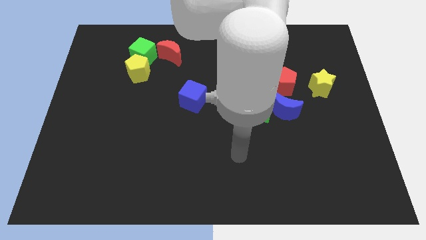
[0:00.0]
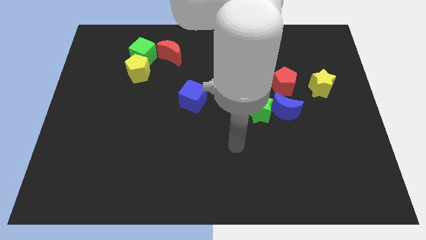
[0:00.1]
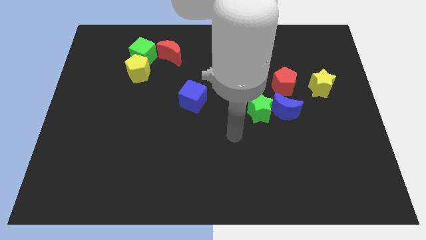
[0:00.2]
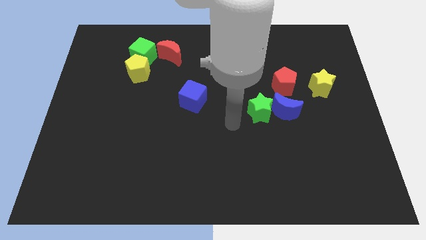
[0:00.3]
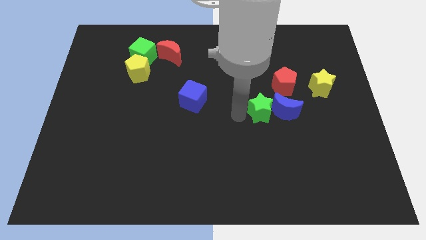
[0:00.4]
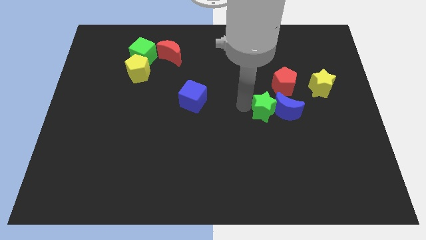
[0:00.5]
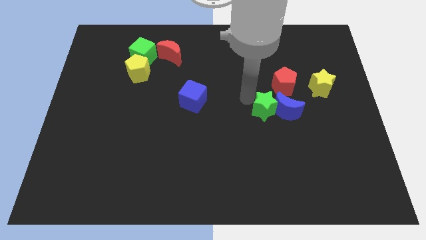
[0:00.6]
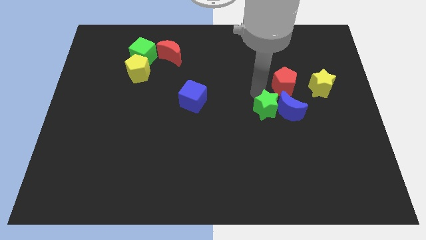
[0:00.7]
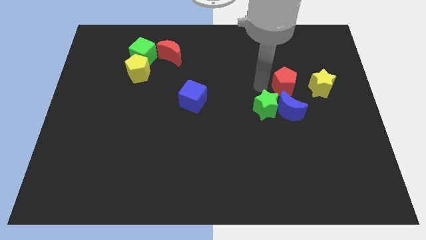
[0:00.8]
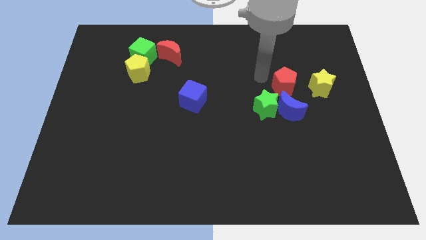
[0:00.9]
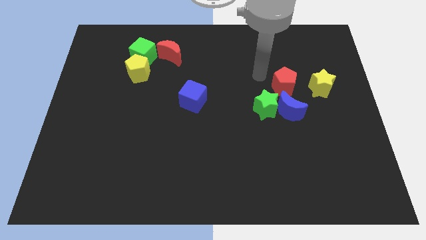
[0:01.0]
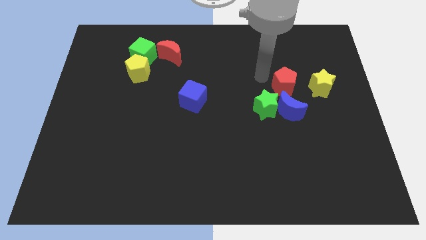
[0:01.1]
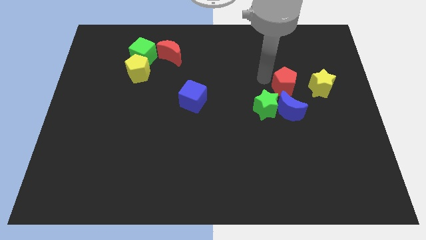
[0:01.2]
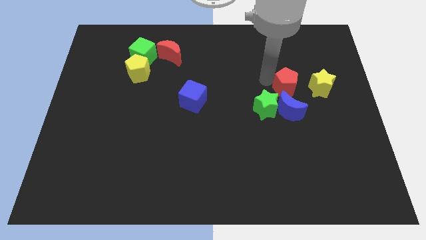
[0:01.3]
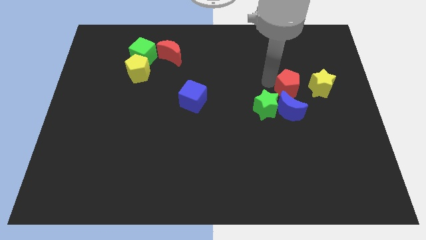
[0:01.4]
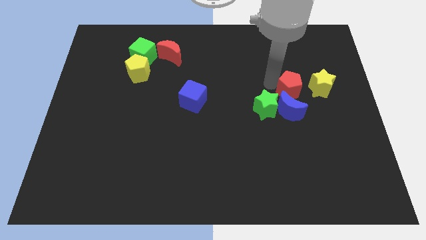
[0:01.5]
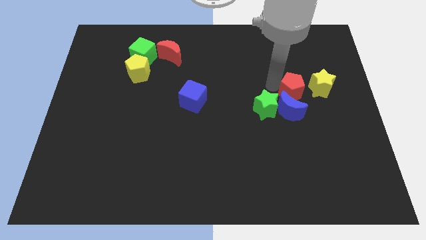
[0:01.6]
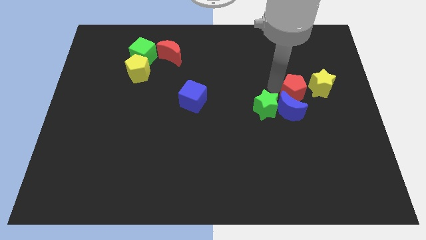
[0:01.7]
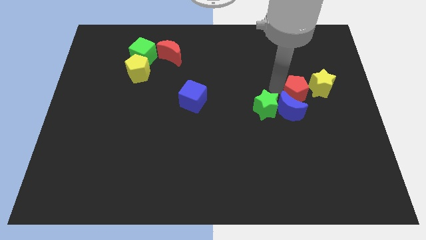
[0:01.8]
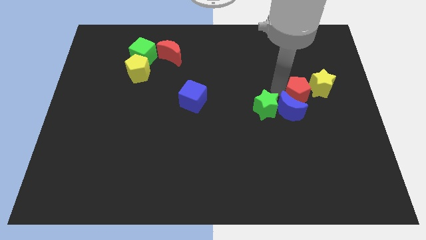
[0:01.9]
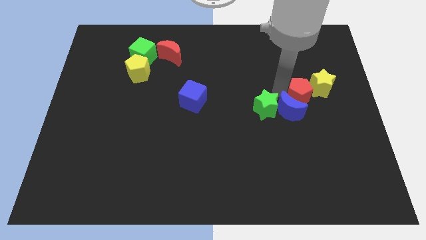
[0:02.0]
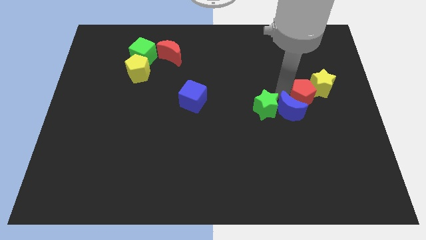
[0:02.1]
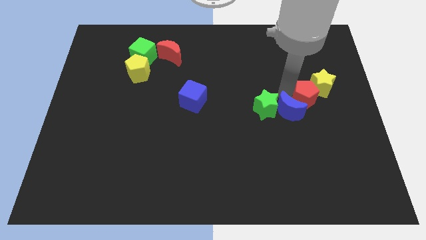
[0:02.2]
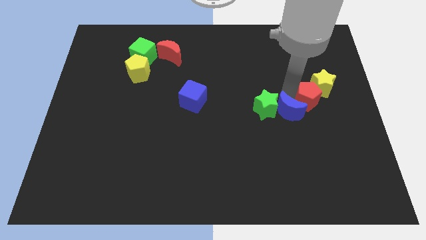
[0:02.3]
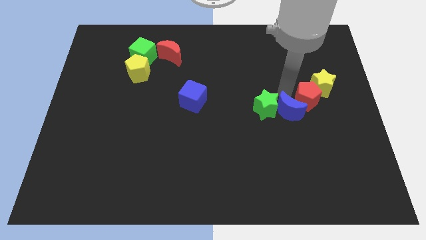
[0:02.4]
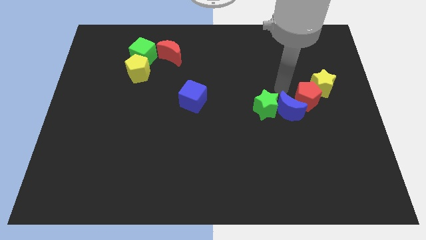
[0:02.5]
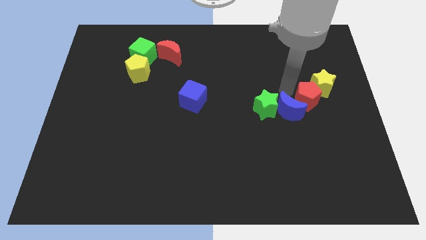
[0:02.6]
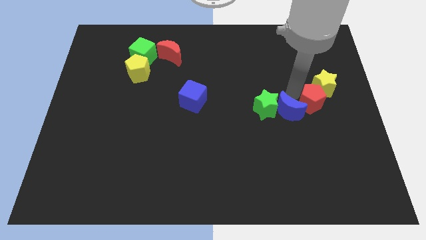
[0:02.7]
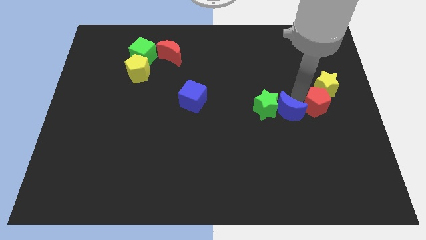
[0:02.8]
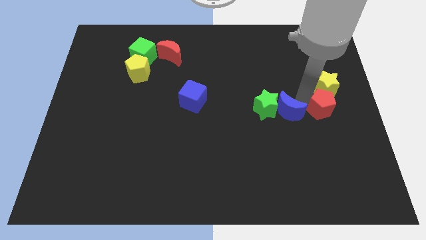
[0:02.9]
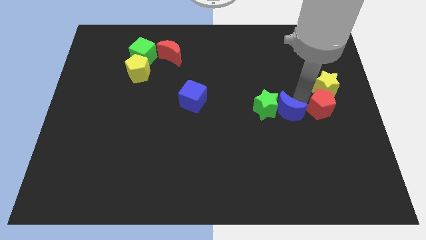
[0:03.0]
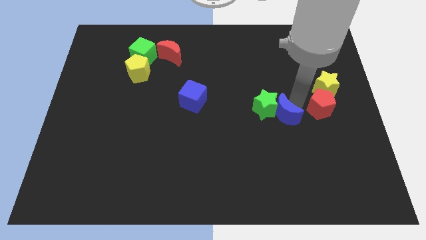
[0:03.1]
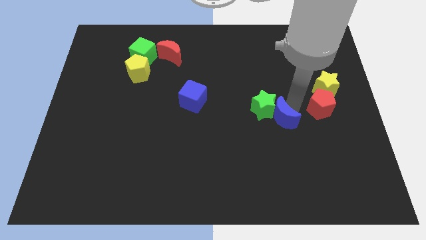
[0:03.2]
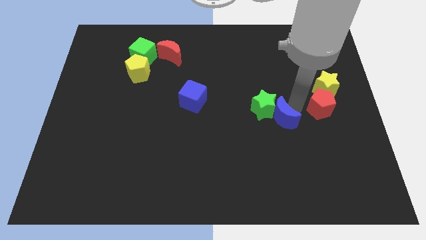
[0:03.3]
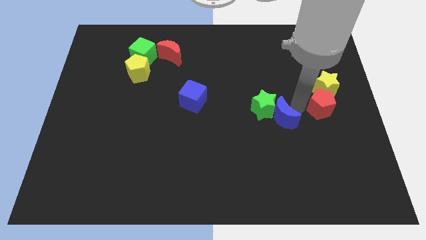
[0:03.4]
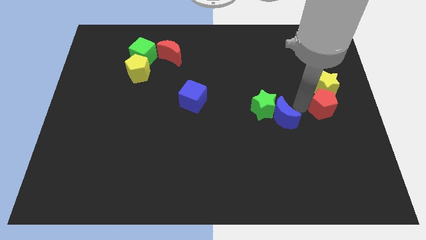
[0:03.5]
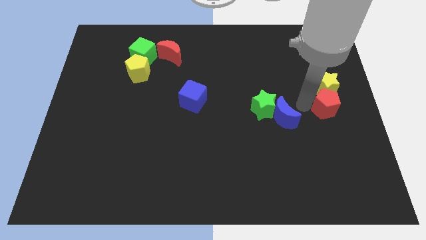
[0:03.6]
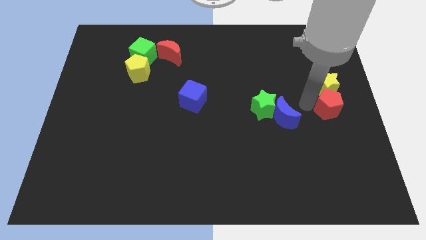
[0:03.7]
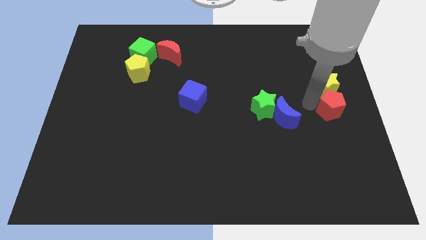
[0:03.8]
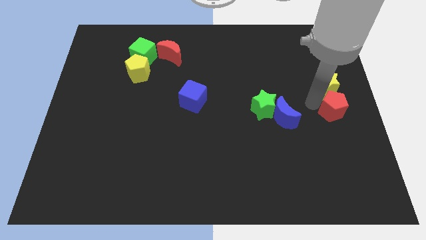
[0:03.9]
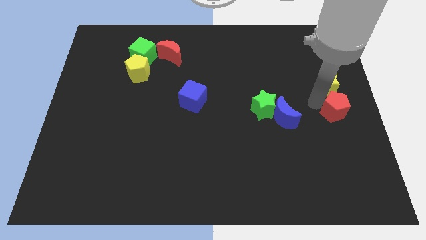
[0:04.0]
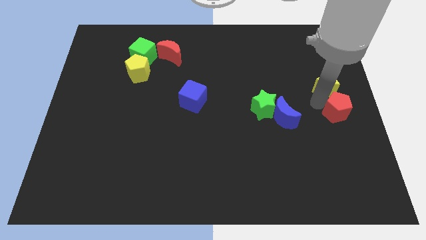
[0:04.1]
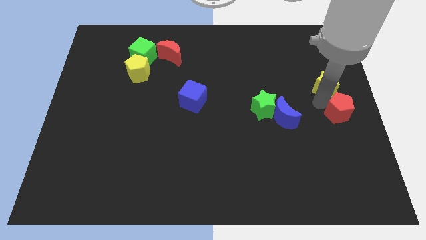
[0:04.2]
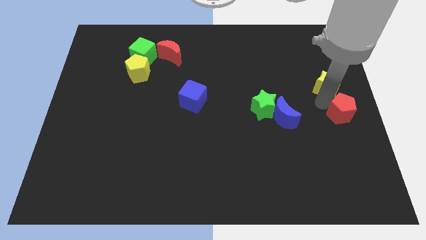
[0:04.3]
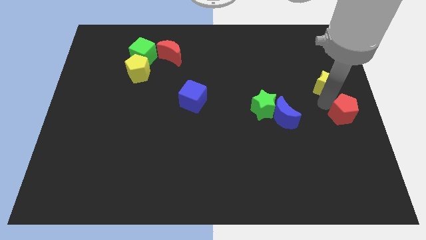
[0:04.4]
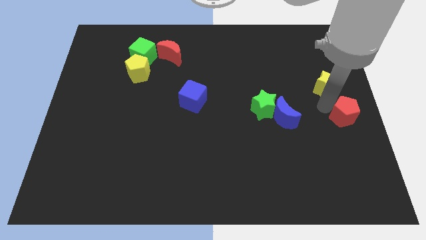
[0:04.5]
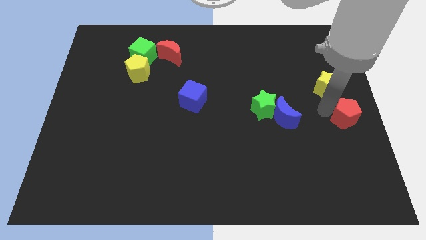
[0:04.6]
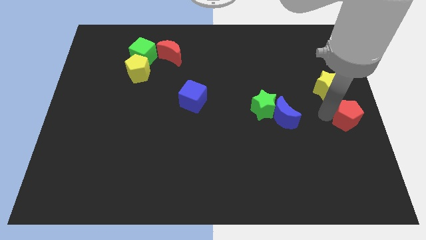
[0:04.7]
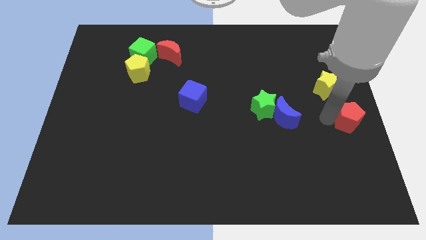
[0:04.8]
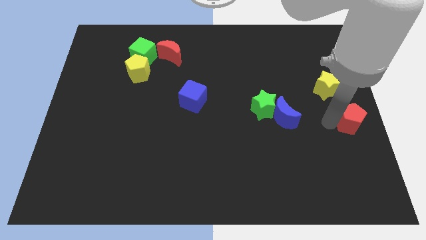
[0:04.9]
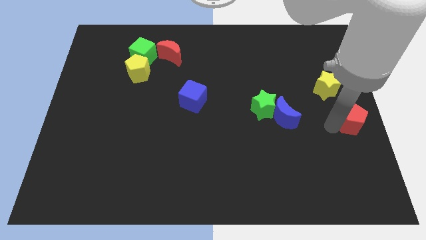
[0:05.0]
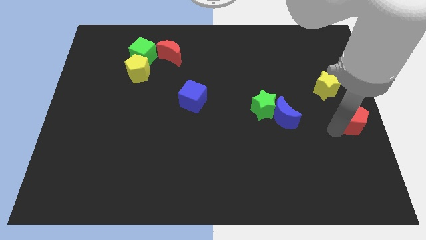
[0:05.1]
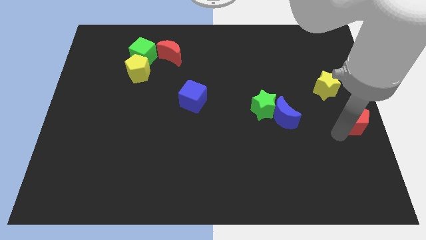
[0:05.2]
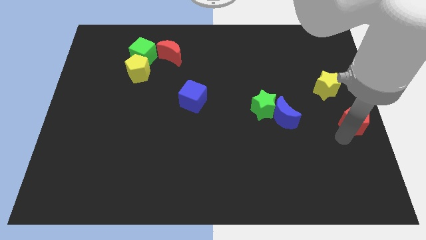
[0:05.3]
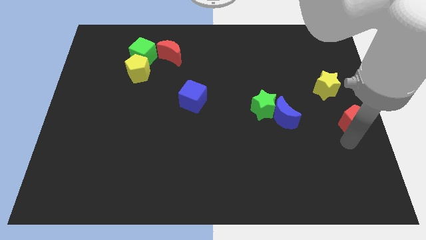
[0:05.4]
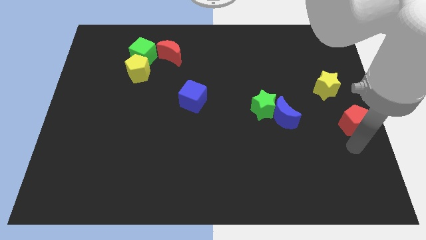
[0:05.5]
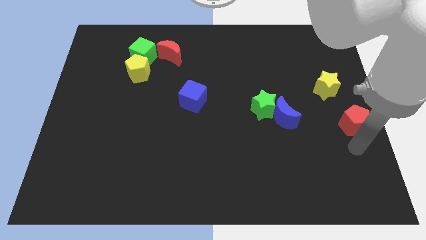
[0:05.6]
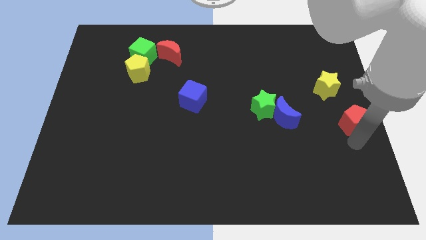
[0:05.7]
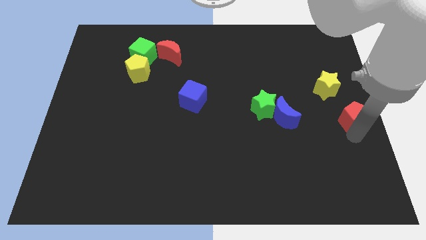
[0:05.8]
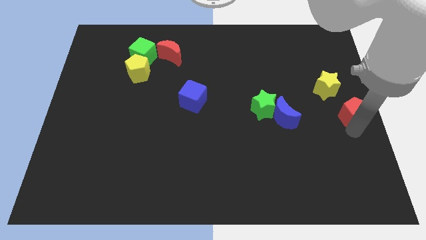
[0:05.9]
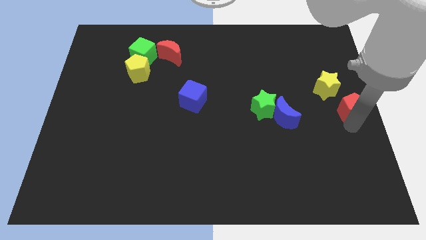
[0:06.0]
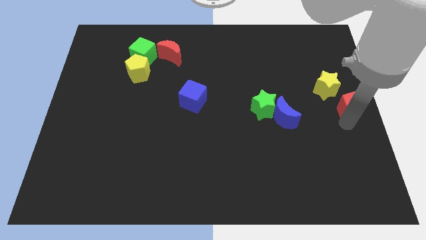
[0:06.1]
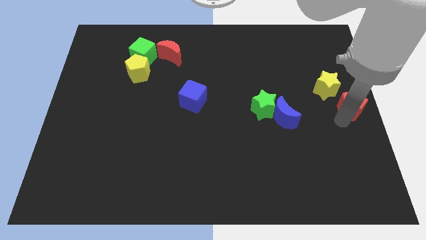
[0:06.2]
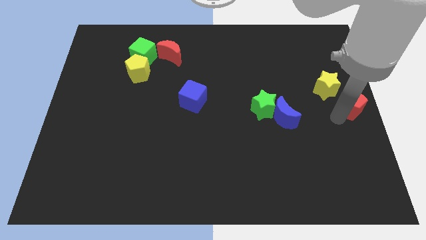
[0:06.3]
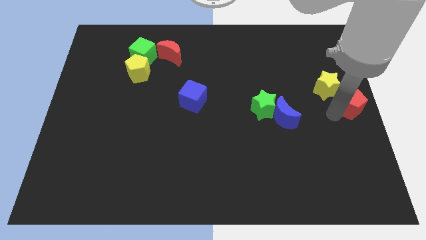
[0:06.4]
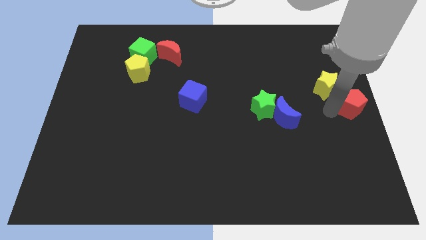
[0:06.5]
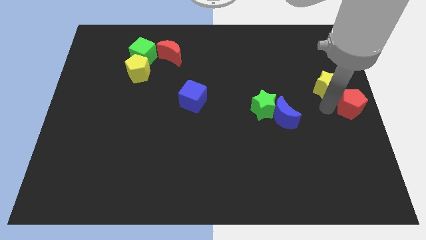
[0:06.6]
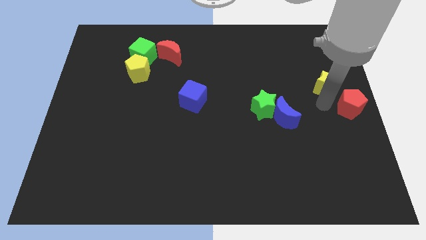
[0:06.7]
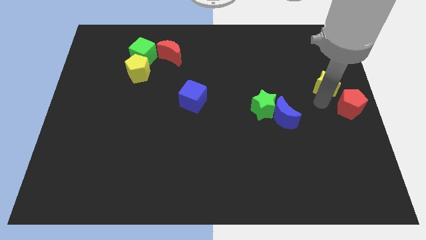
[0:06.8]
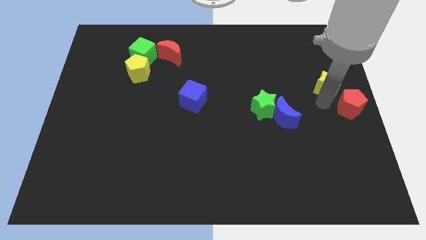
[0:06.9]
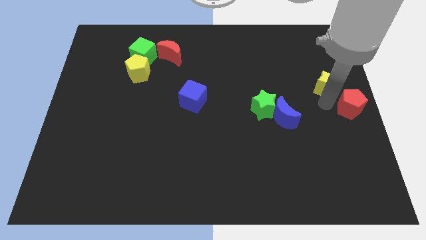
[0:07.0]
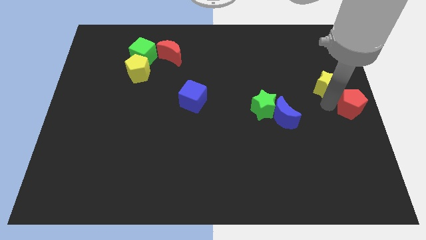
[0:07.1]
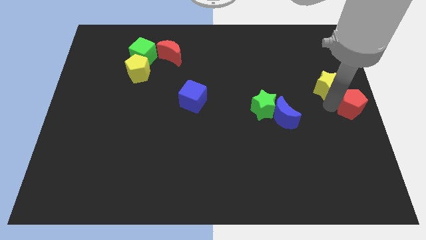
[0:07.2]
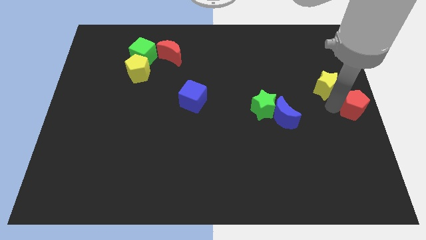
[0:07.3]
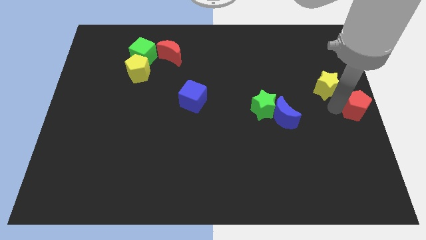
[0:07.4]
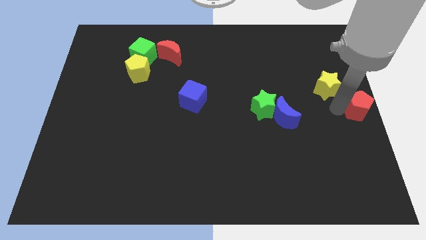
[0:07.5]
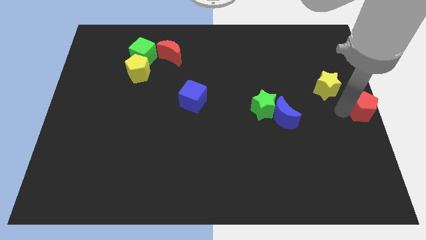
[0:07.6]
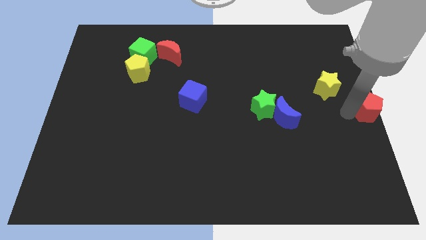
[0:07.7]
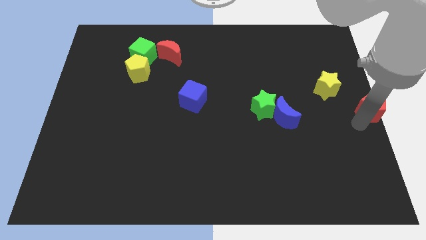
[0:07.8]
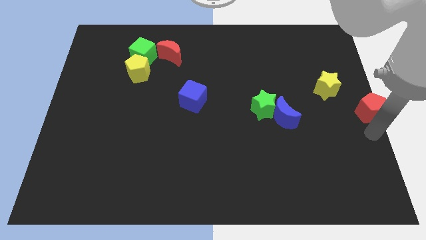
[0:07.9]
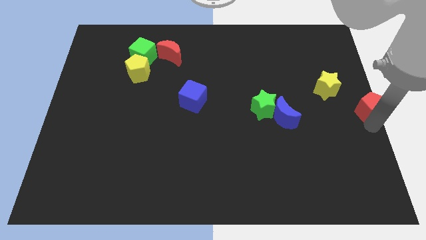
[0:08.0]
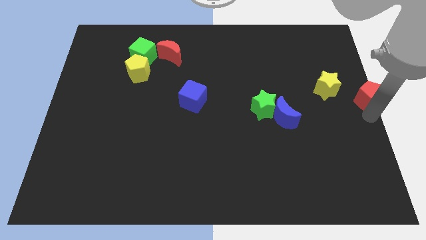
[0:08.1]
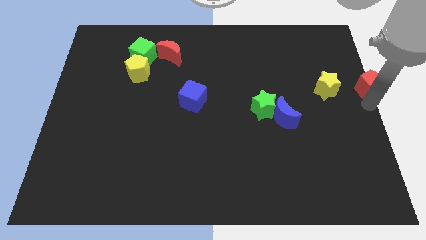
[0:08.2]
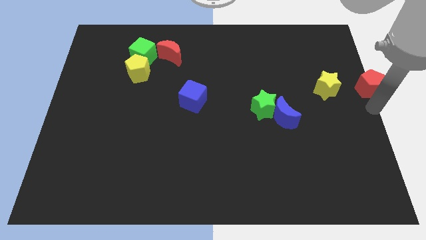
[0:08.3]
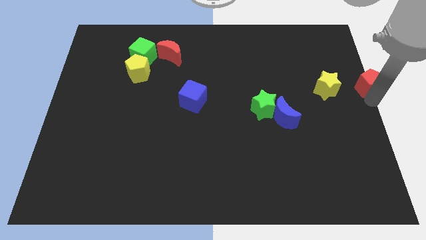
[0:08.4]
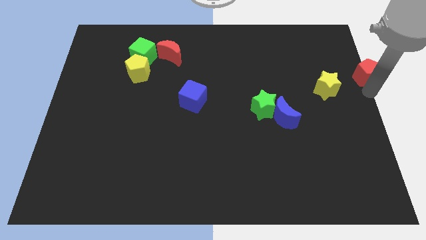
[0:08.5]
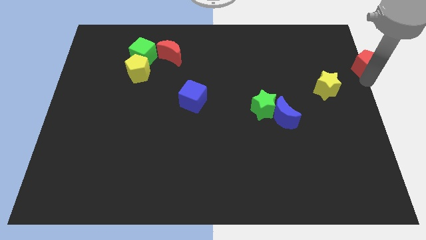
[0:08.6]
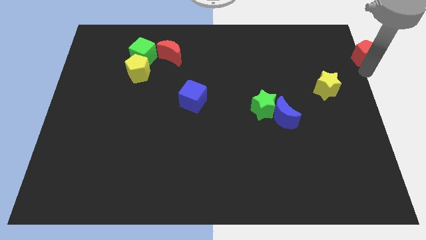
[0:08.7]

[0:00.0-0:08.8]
push the red pentagon to the top right of the board
